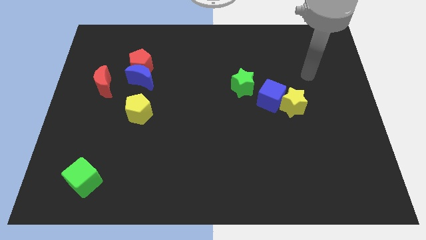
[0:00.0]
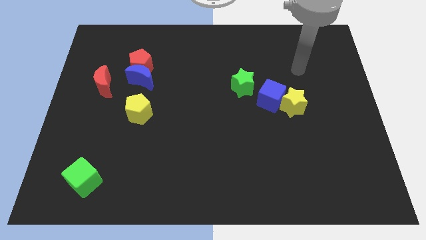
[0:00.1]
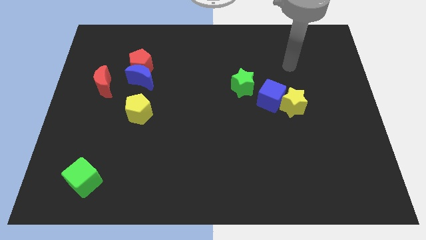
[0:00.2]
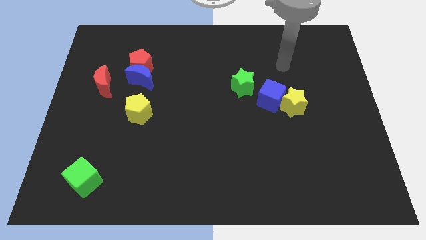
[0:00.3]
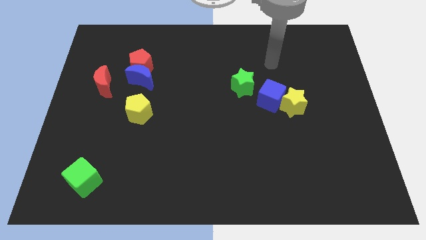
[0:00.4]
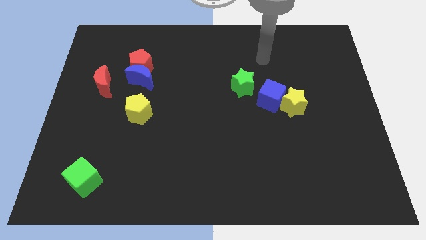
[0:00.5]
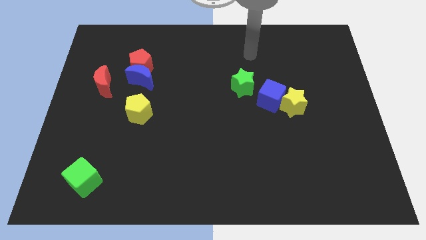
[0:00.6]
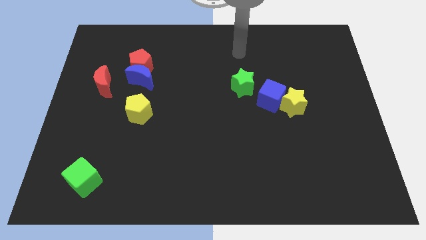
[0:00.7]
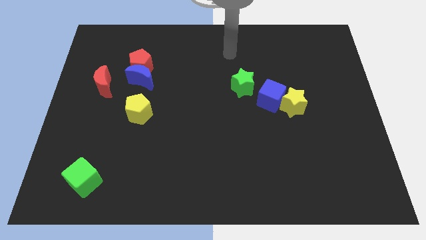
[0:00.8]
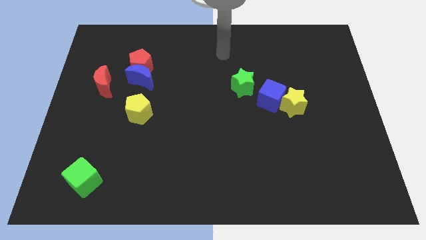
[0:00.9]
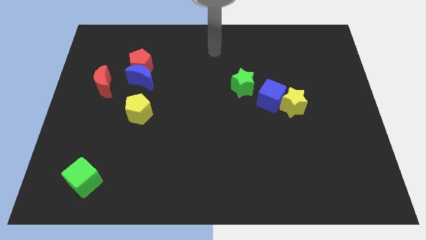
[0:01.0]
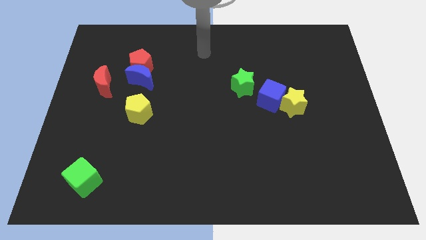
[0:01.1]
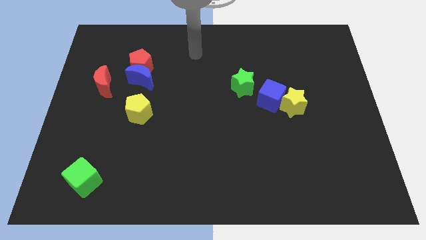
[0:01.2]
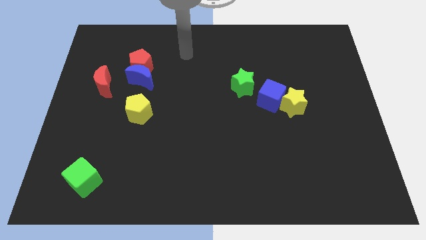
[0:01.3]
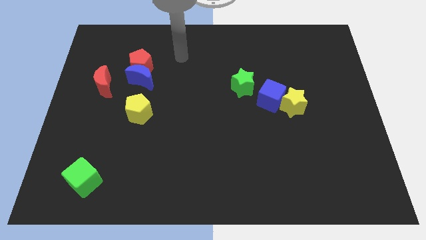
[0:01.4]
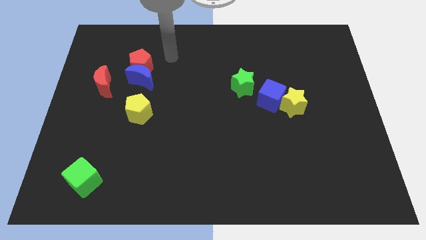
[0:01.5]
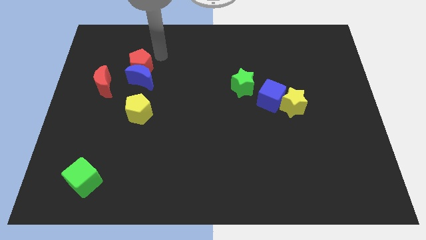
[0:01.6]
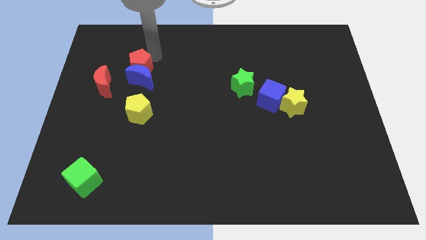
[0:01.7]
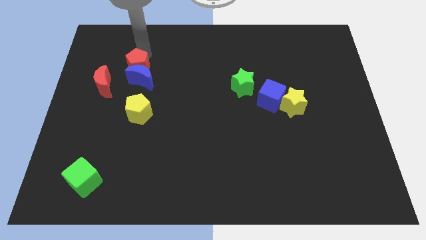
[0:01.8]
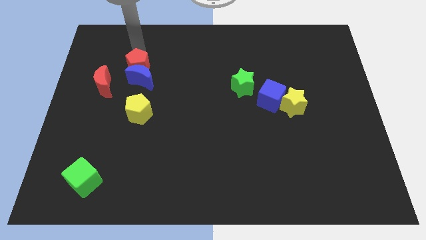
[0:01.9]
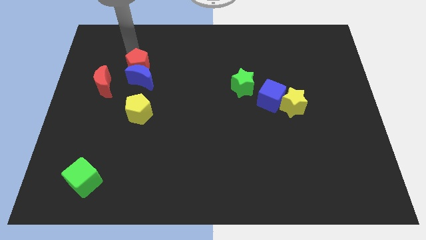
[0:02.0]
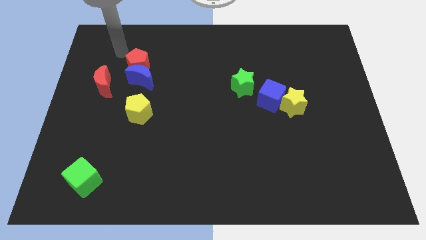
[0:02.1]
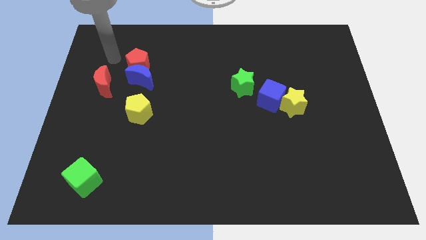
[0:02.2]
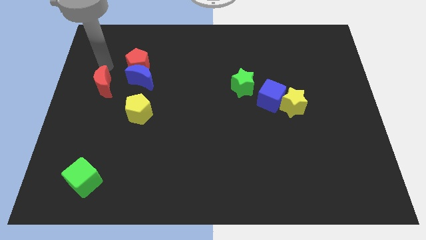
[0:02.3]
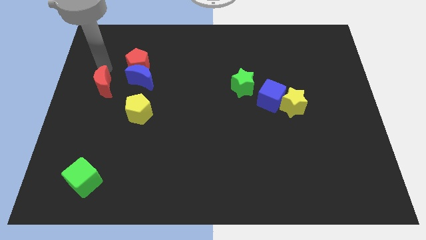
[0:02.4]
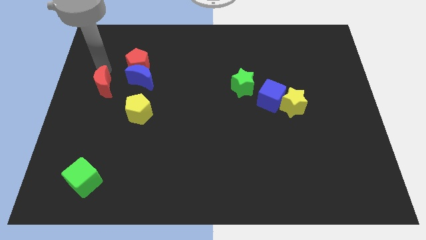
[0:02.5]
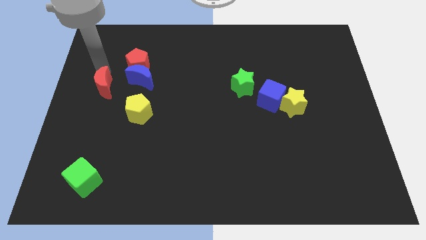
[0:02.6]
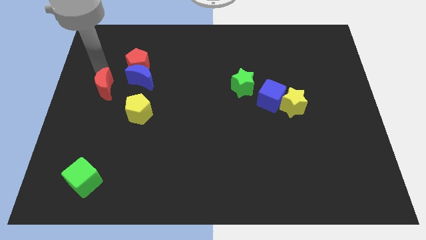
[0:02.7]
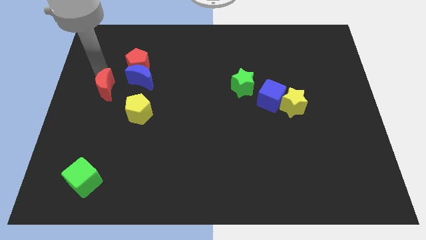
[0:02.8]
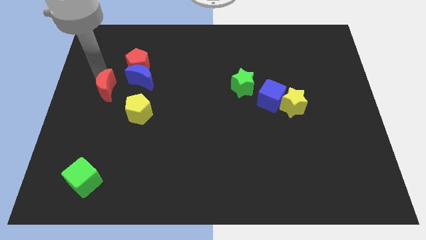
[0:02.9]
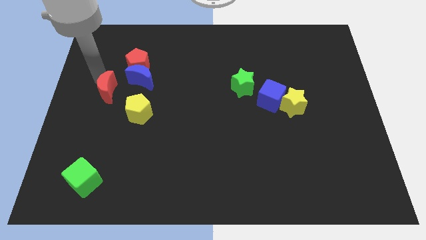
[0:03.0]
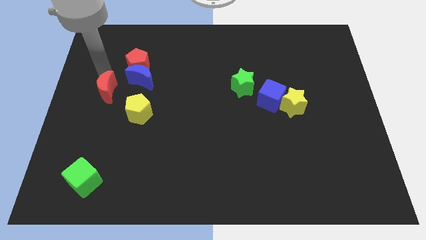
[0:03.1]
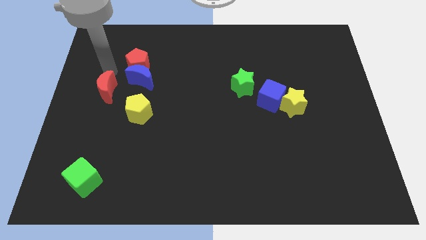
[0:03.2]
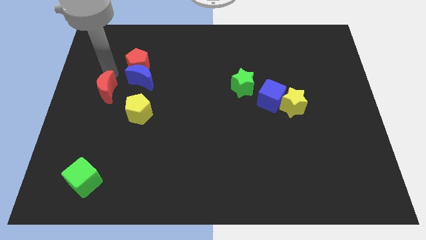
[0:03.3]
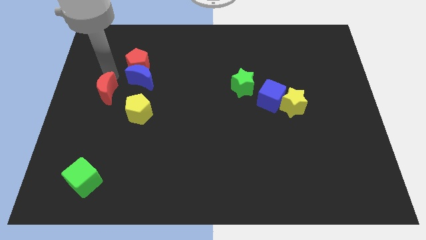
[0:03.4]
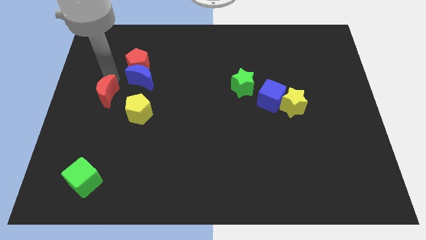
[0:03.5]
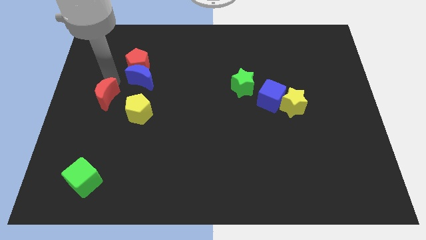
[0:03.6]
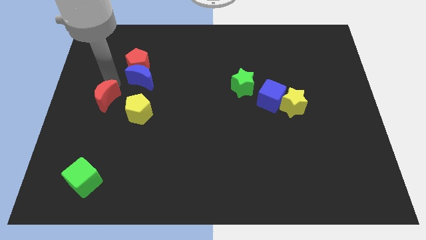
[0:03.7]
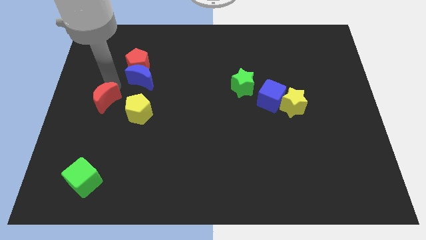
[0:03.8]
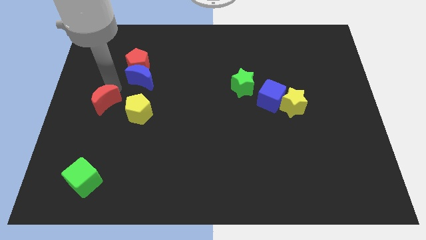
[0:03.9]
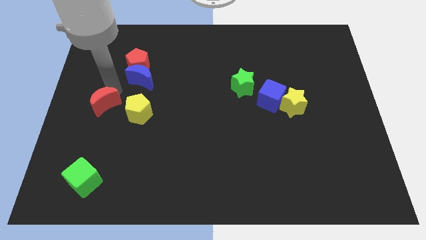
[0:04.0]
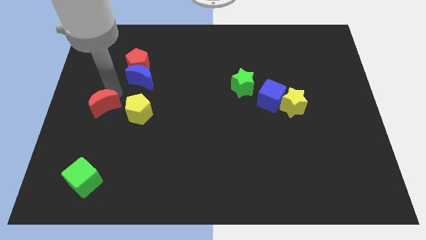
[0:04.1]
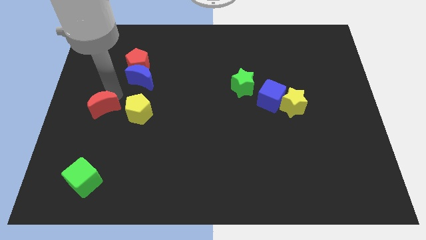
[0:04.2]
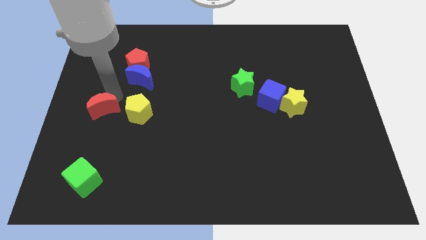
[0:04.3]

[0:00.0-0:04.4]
slide the red moon a little down

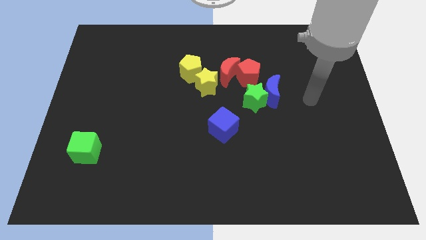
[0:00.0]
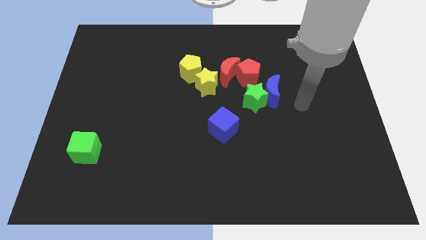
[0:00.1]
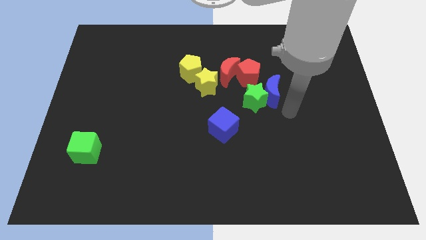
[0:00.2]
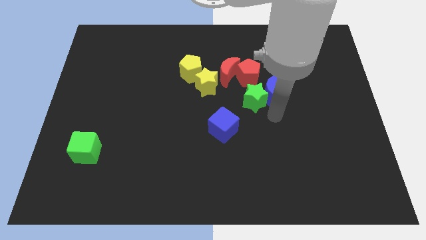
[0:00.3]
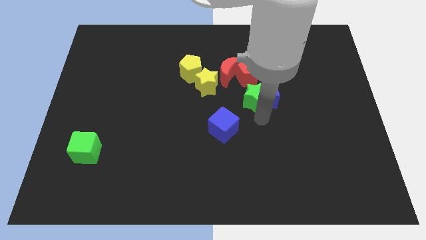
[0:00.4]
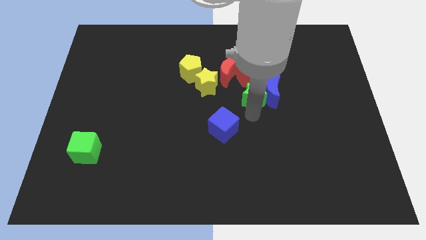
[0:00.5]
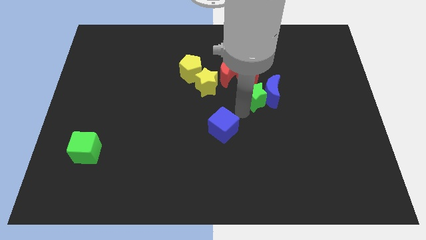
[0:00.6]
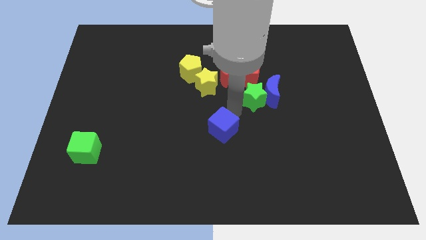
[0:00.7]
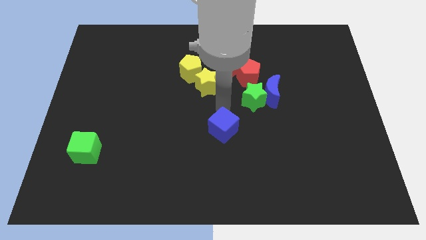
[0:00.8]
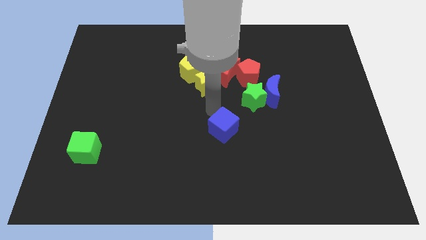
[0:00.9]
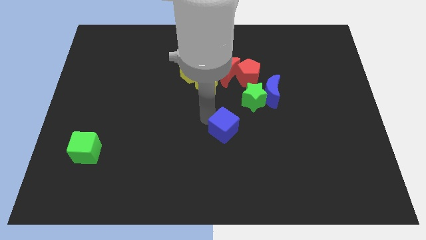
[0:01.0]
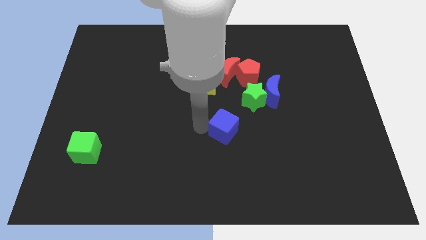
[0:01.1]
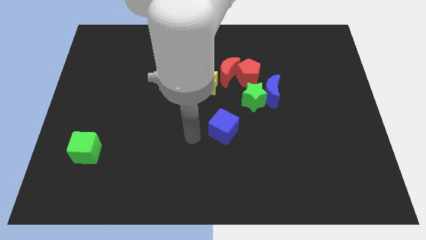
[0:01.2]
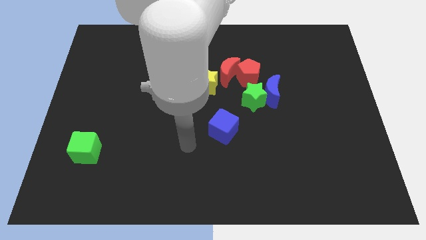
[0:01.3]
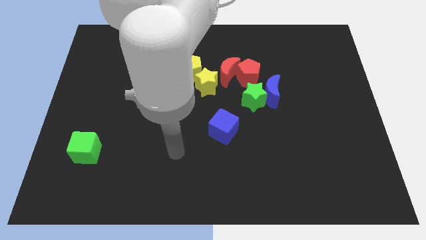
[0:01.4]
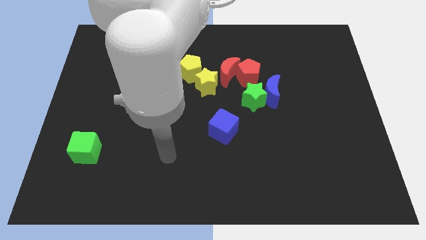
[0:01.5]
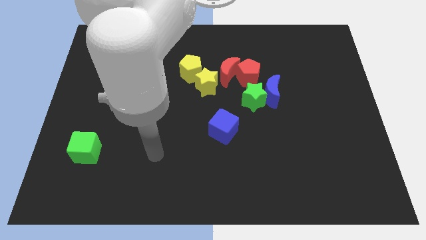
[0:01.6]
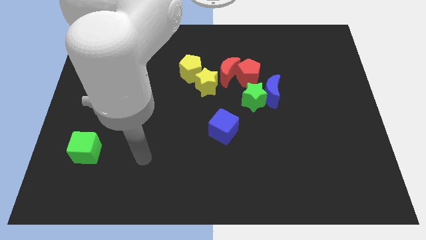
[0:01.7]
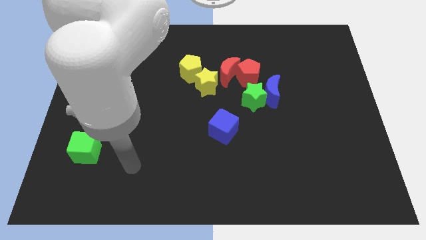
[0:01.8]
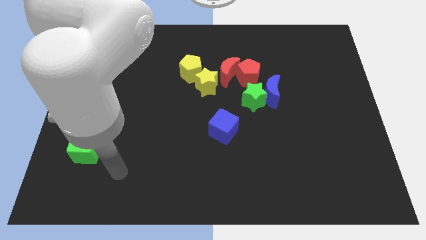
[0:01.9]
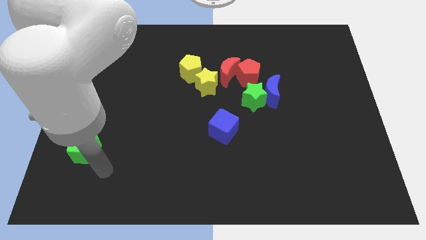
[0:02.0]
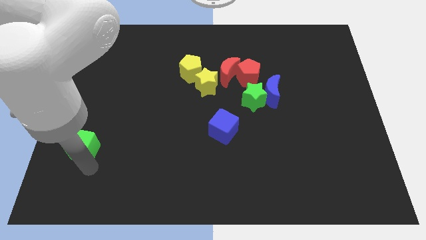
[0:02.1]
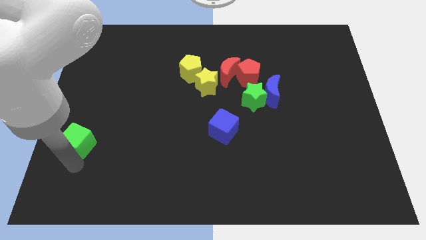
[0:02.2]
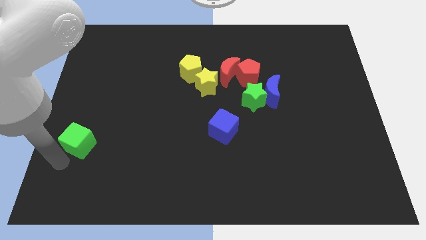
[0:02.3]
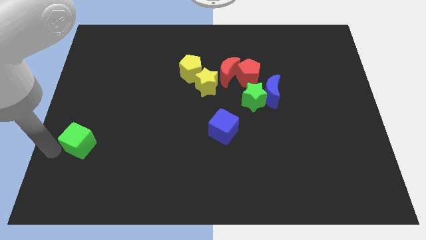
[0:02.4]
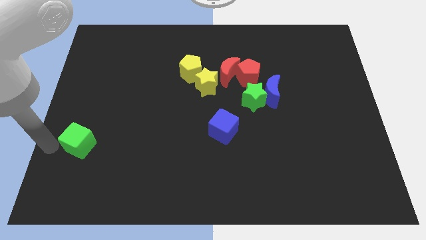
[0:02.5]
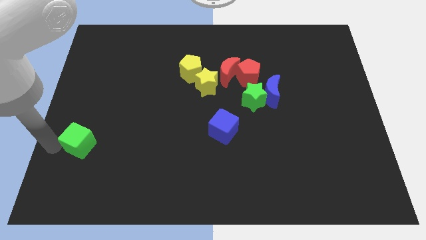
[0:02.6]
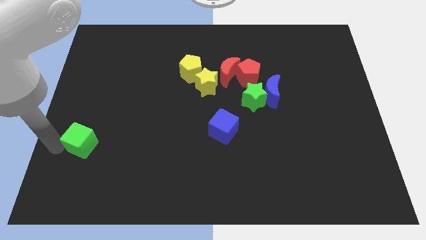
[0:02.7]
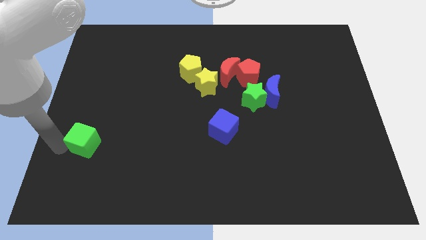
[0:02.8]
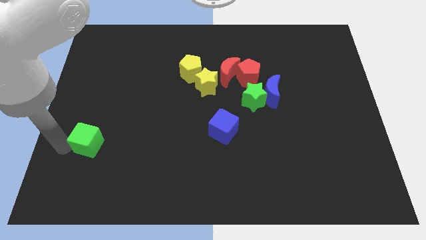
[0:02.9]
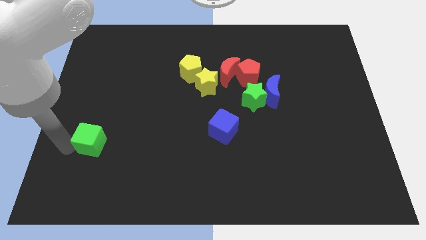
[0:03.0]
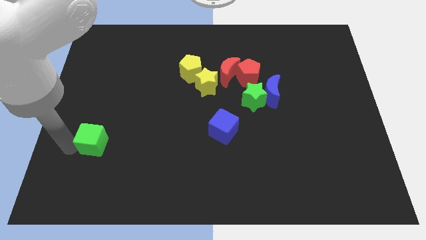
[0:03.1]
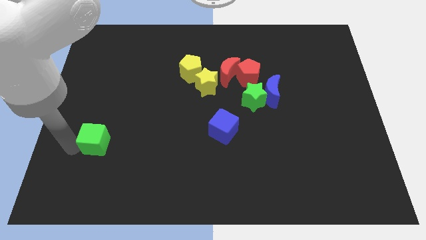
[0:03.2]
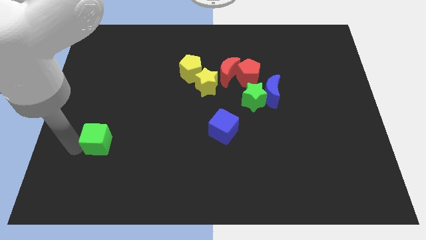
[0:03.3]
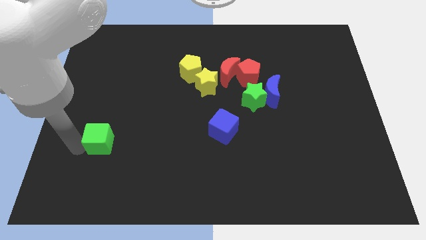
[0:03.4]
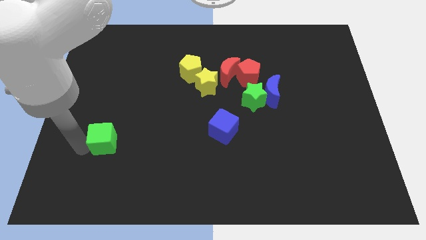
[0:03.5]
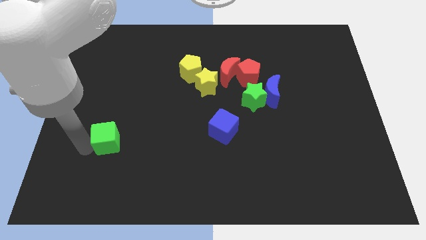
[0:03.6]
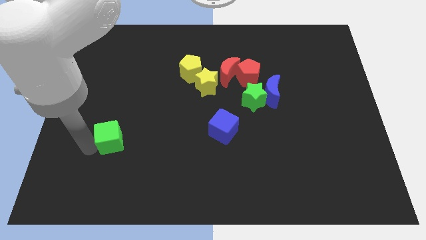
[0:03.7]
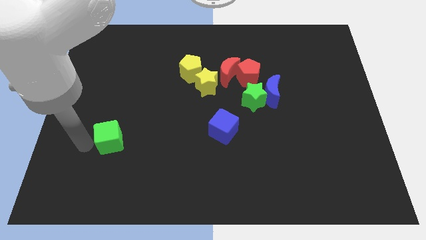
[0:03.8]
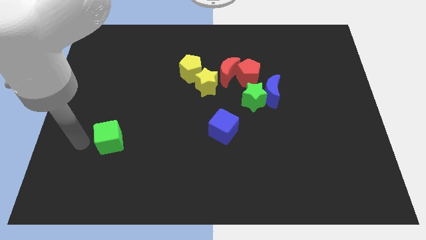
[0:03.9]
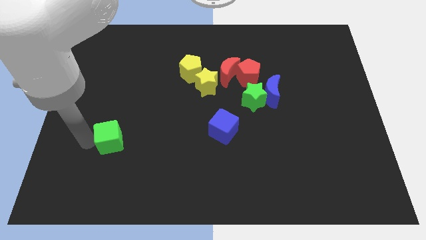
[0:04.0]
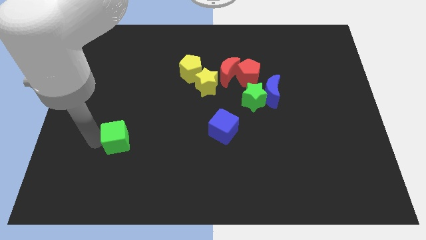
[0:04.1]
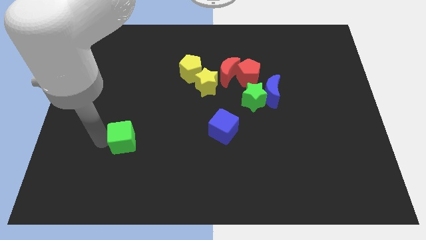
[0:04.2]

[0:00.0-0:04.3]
move the green cube a bit to the right
